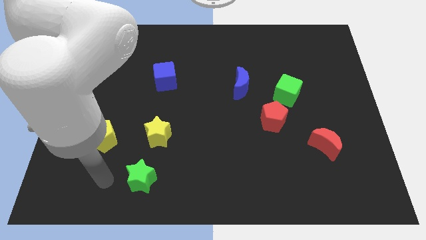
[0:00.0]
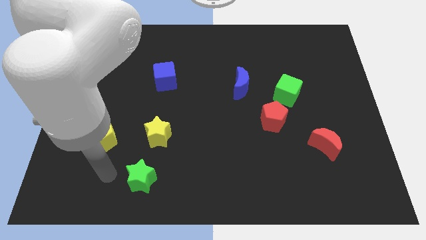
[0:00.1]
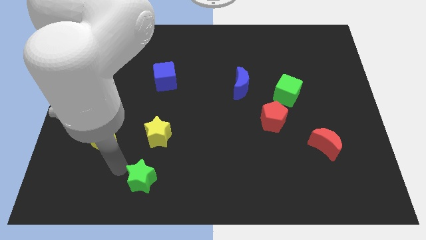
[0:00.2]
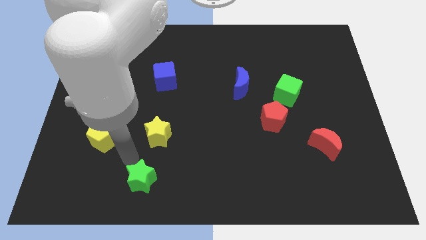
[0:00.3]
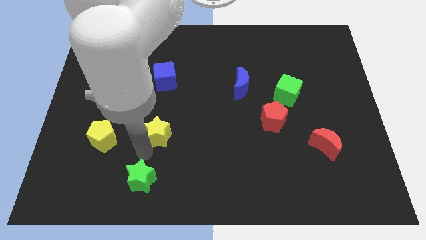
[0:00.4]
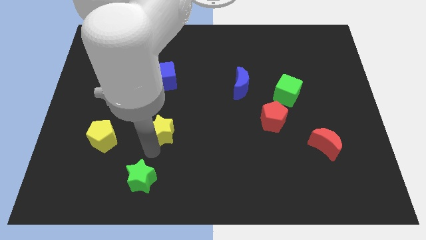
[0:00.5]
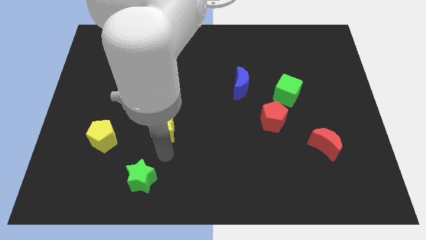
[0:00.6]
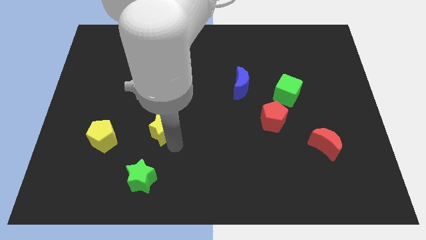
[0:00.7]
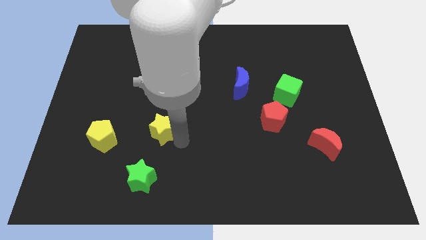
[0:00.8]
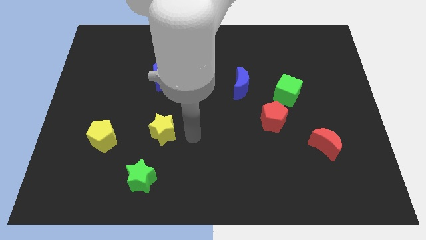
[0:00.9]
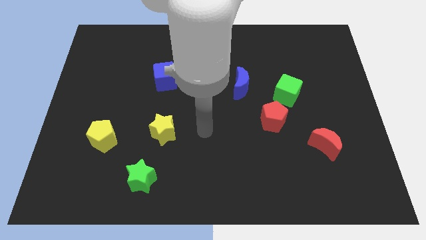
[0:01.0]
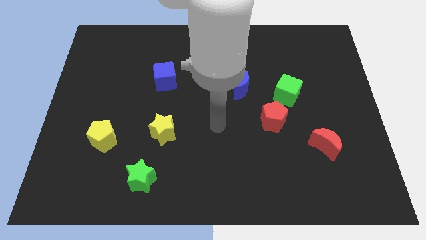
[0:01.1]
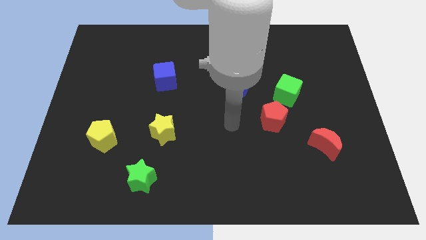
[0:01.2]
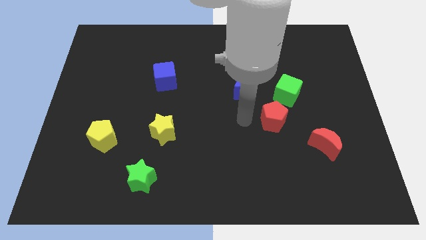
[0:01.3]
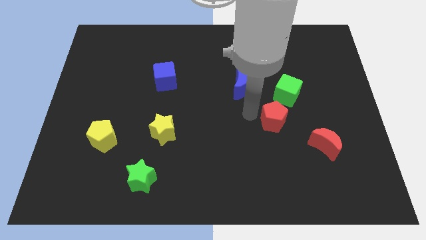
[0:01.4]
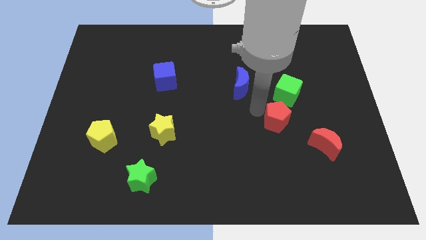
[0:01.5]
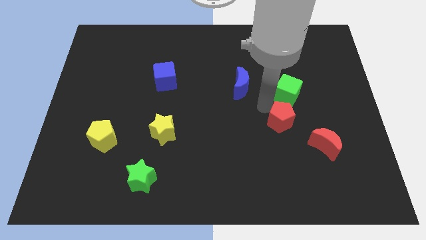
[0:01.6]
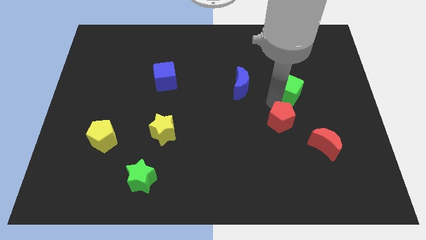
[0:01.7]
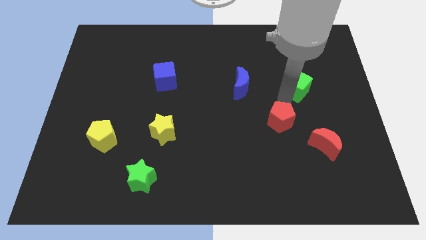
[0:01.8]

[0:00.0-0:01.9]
pull the red pentagon apart from the green cube

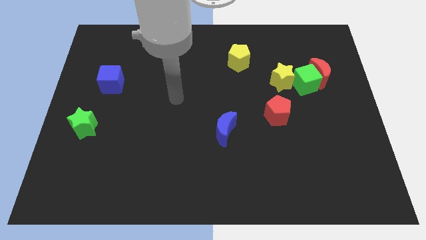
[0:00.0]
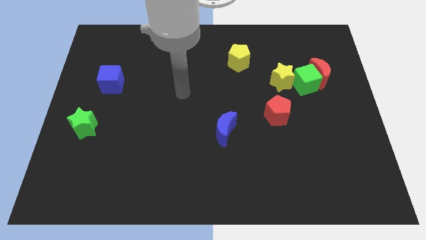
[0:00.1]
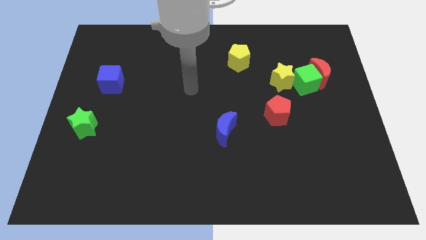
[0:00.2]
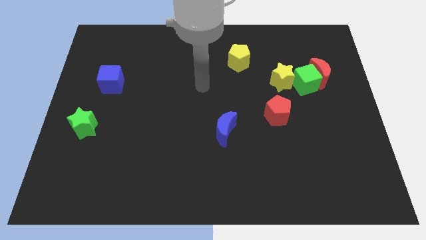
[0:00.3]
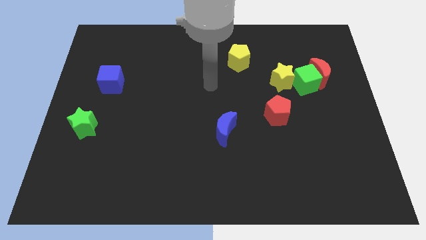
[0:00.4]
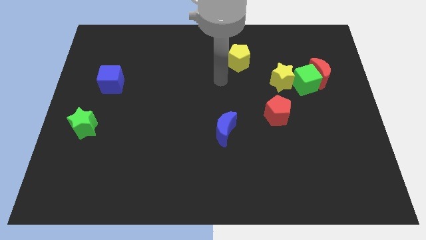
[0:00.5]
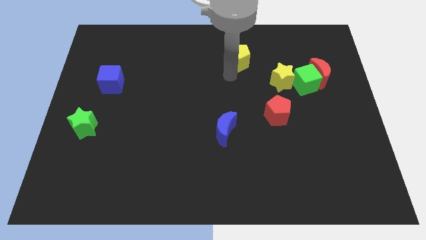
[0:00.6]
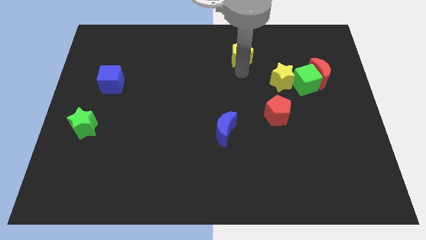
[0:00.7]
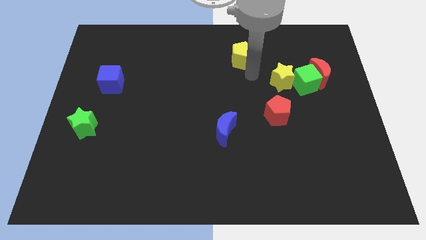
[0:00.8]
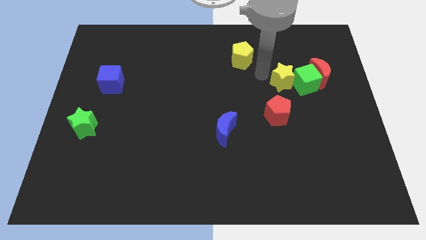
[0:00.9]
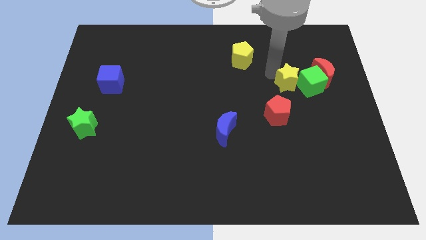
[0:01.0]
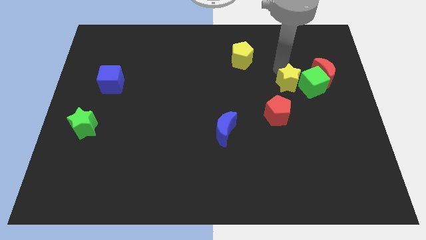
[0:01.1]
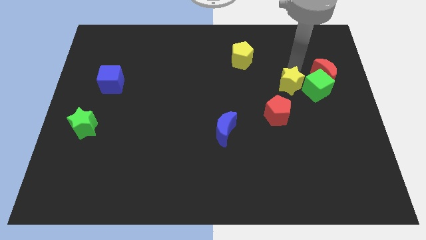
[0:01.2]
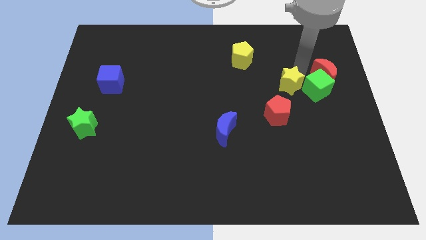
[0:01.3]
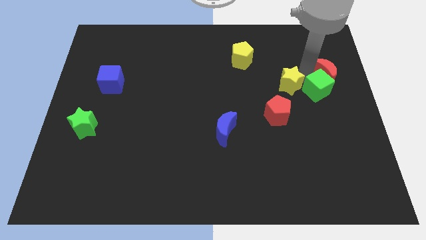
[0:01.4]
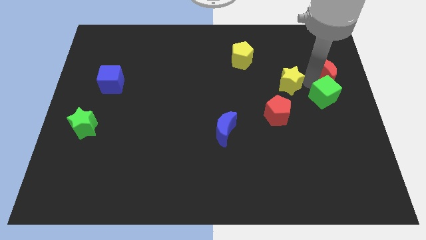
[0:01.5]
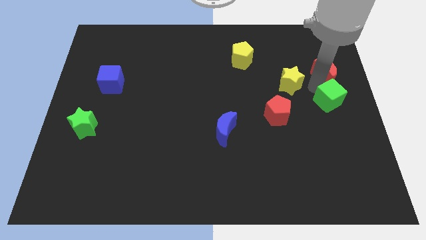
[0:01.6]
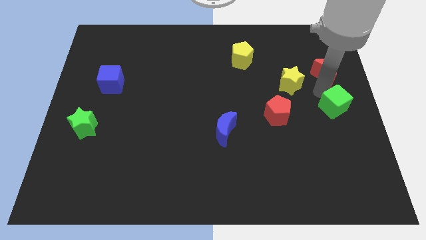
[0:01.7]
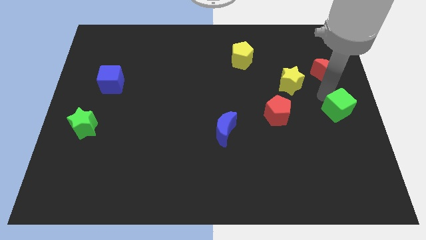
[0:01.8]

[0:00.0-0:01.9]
separate the green cube from the red moon and yellow star

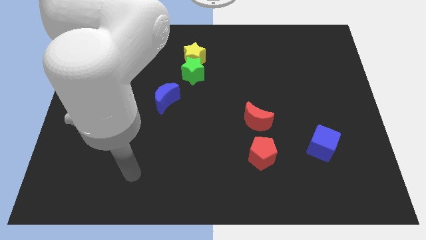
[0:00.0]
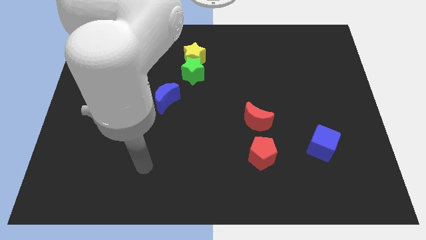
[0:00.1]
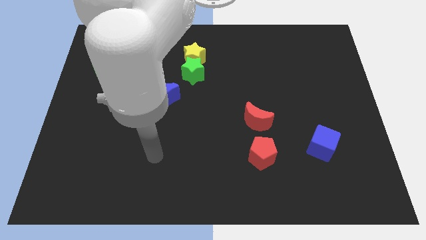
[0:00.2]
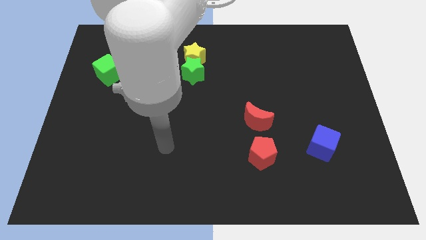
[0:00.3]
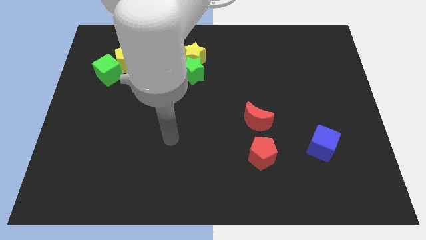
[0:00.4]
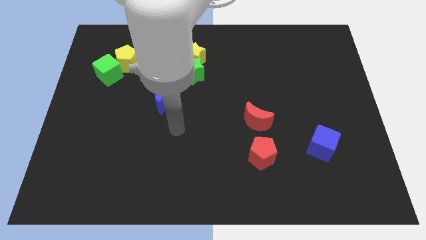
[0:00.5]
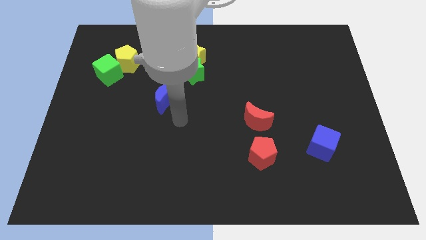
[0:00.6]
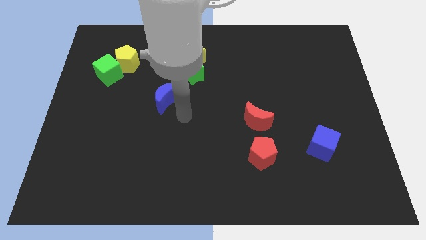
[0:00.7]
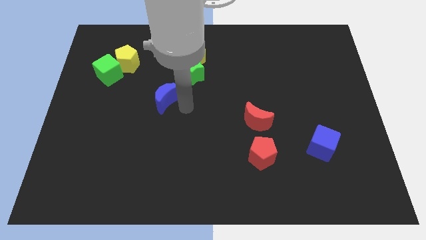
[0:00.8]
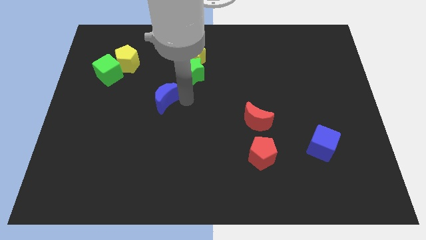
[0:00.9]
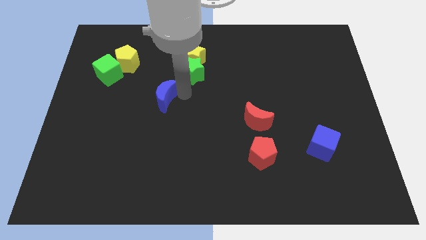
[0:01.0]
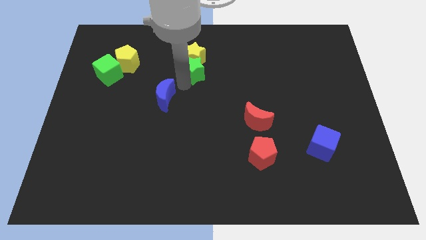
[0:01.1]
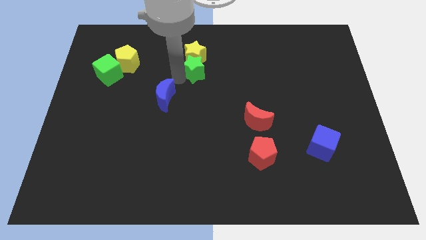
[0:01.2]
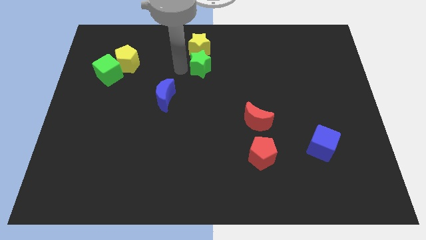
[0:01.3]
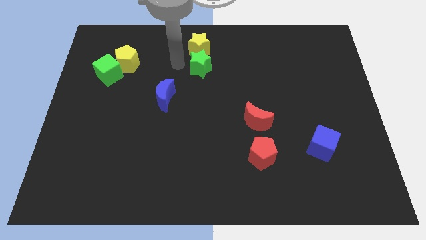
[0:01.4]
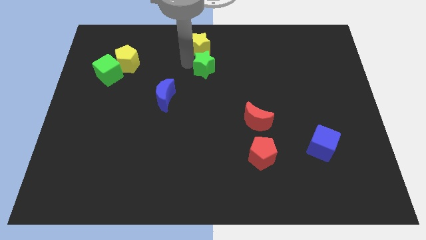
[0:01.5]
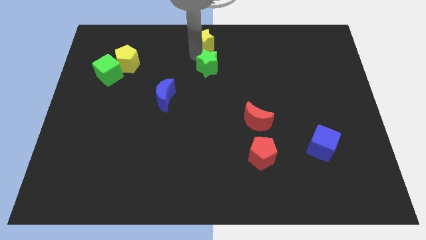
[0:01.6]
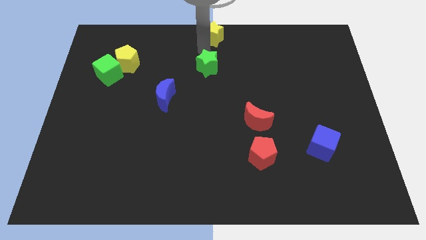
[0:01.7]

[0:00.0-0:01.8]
separate the green star from the yellow star

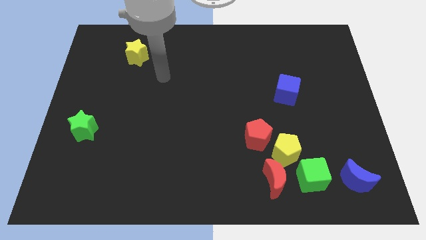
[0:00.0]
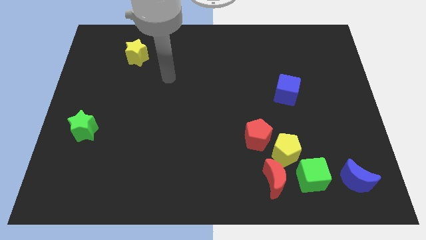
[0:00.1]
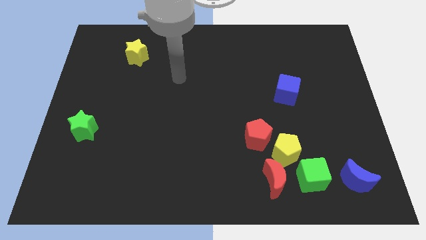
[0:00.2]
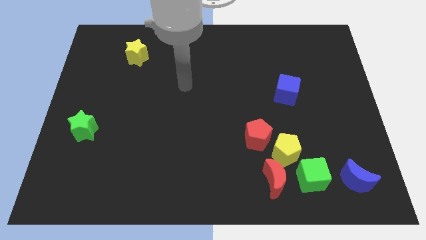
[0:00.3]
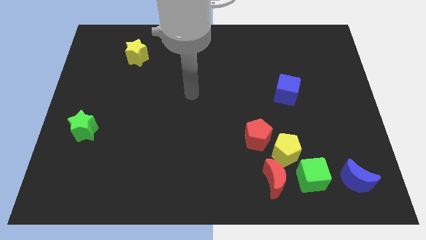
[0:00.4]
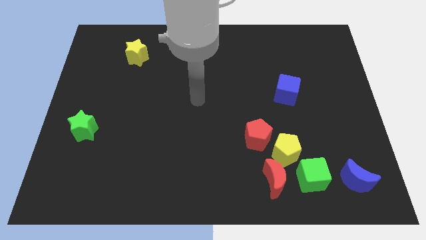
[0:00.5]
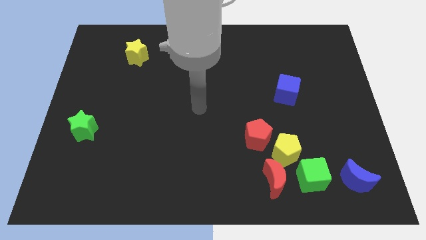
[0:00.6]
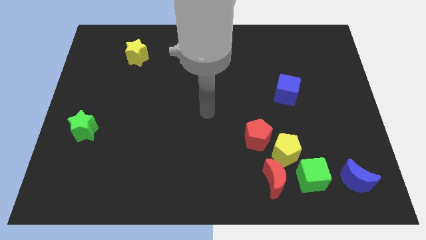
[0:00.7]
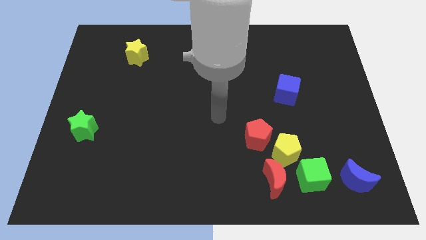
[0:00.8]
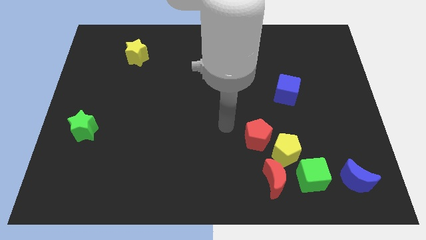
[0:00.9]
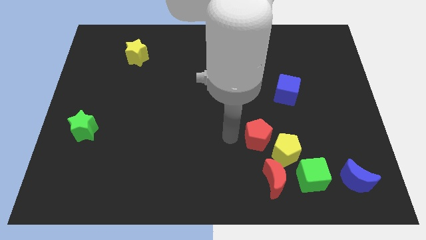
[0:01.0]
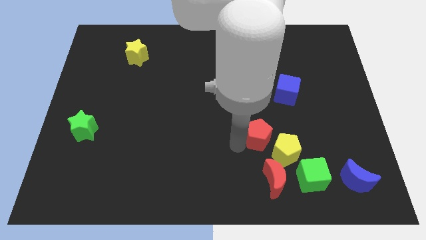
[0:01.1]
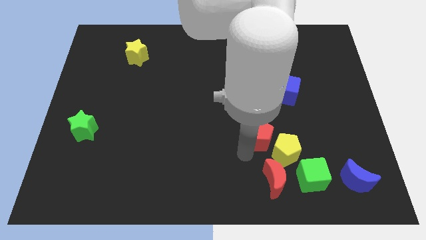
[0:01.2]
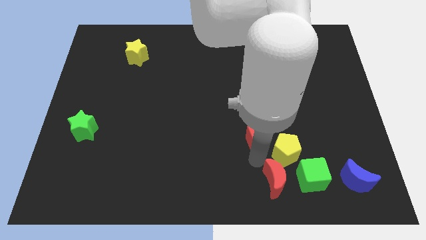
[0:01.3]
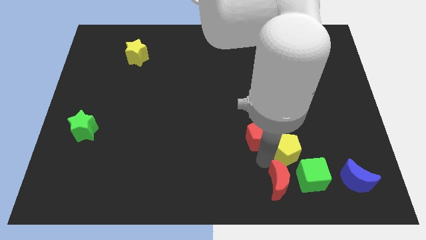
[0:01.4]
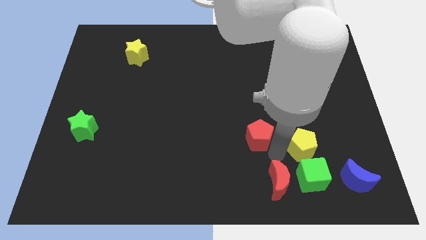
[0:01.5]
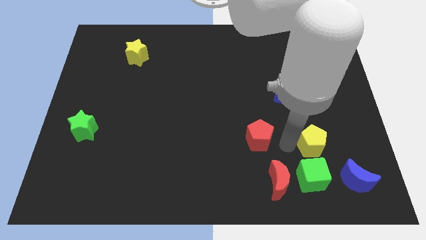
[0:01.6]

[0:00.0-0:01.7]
move the red pentagon away from the yellow pentagon

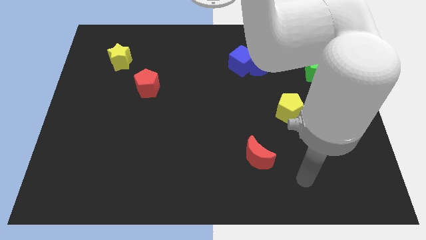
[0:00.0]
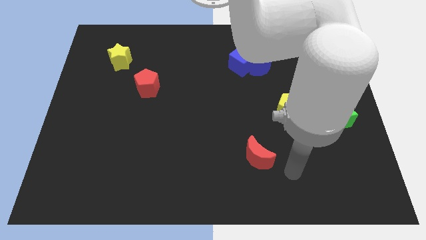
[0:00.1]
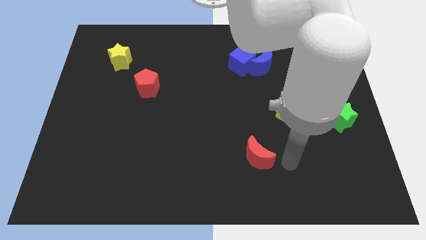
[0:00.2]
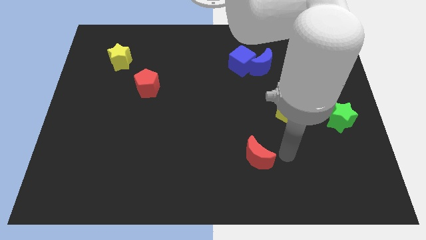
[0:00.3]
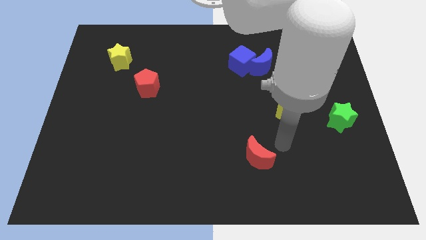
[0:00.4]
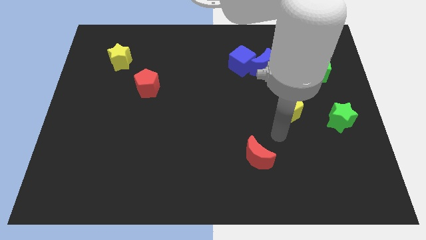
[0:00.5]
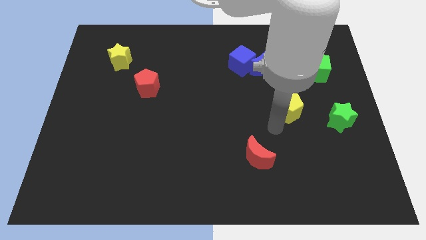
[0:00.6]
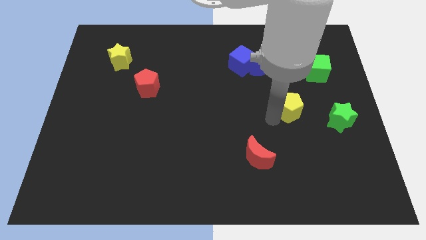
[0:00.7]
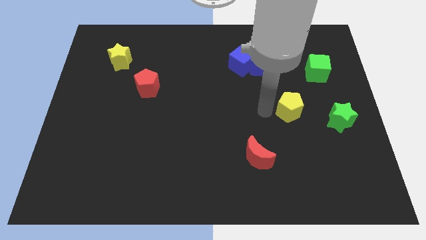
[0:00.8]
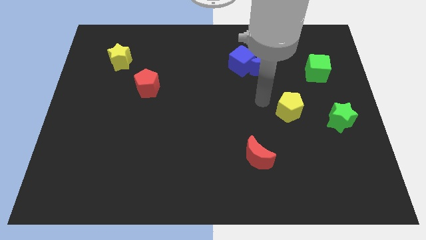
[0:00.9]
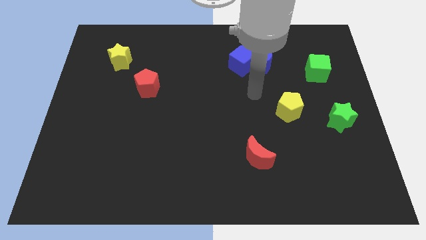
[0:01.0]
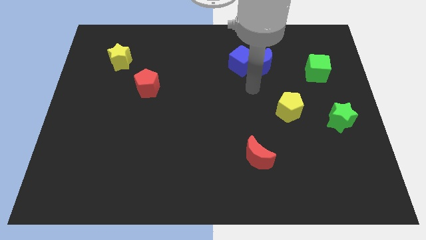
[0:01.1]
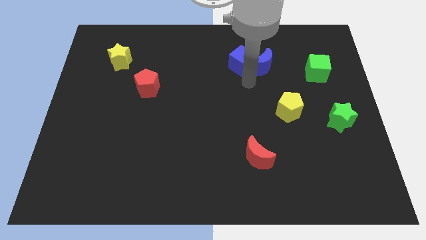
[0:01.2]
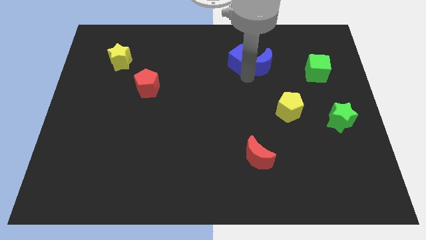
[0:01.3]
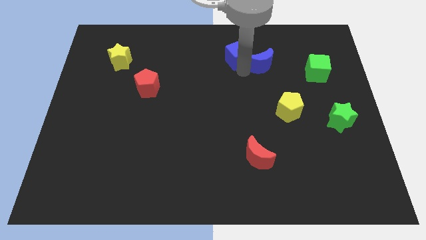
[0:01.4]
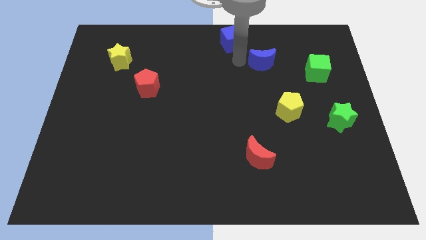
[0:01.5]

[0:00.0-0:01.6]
separate the blue moon from the blue cube

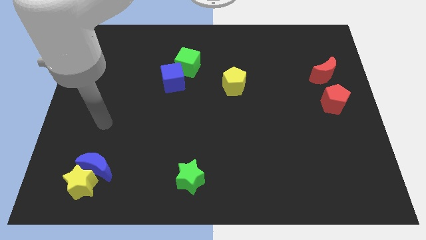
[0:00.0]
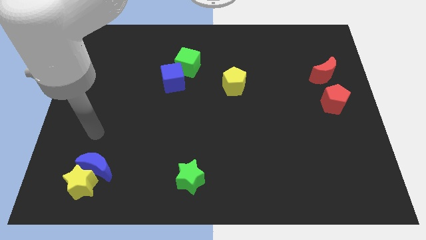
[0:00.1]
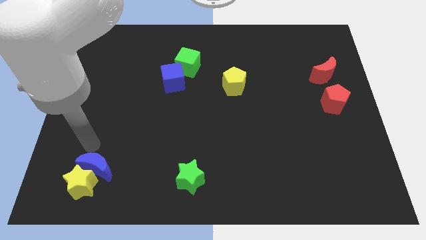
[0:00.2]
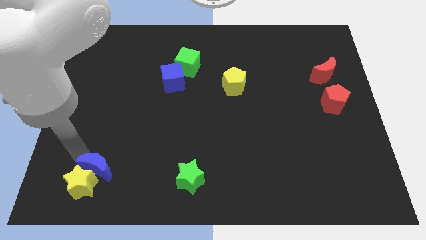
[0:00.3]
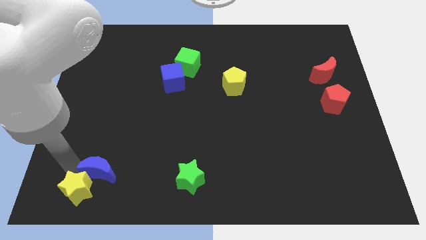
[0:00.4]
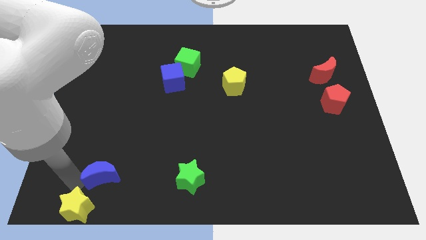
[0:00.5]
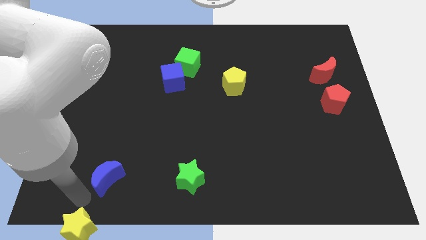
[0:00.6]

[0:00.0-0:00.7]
move the blue moon away from the yellow star
